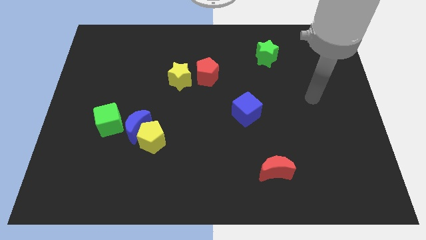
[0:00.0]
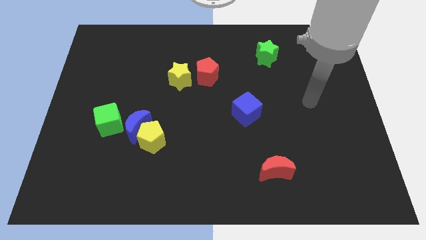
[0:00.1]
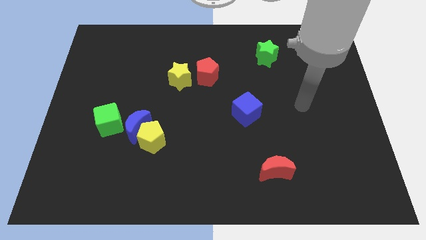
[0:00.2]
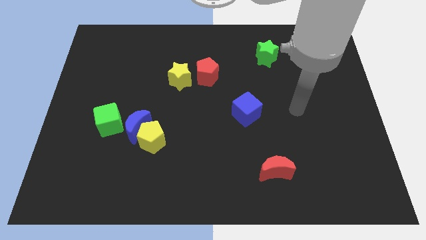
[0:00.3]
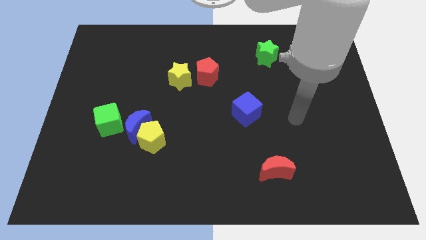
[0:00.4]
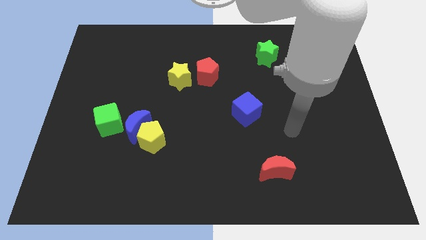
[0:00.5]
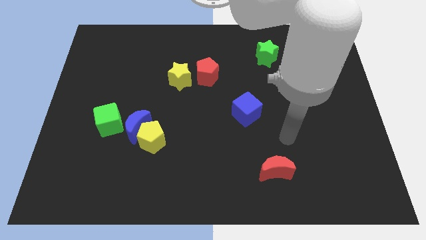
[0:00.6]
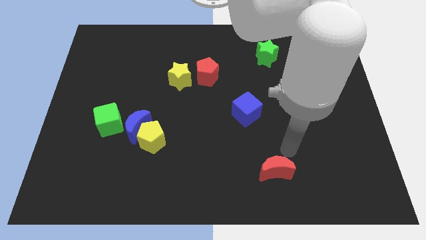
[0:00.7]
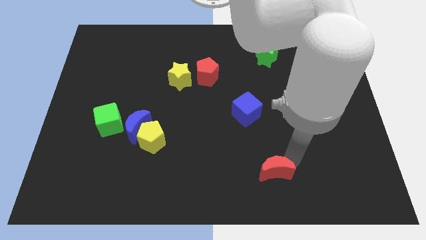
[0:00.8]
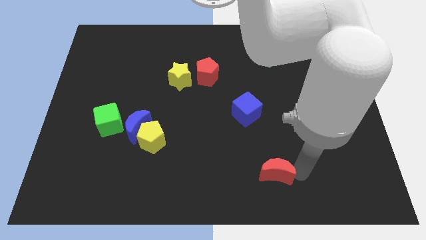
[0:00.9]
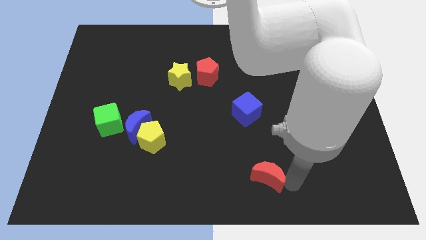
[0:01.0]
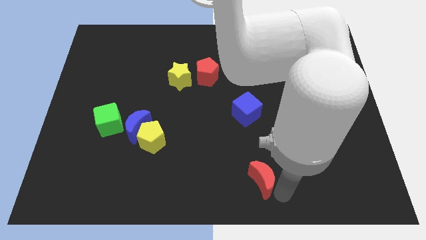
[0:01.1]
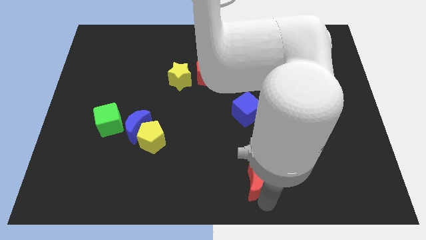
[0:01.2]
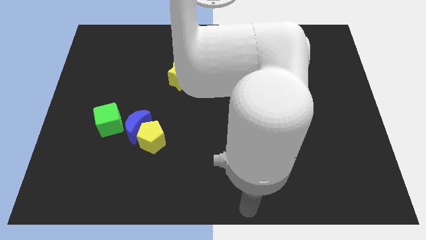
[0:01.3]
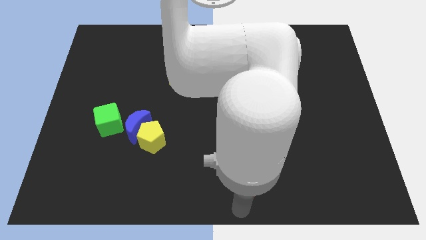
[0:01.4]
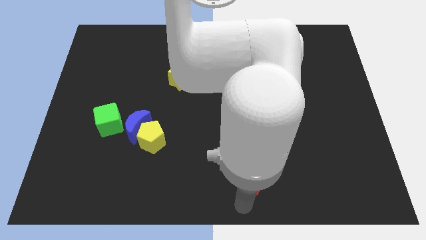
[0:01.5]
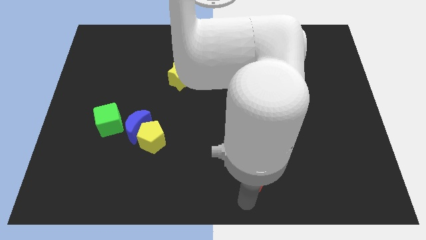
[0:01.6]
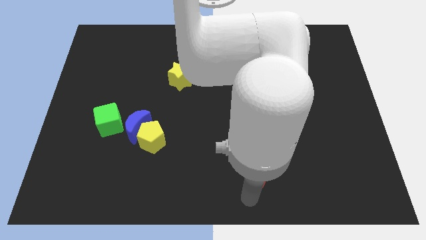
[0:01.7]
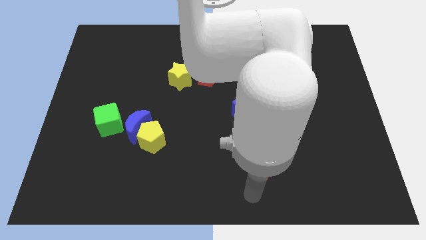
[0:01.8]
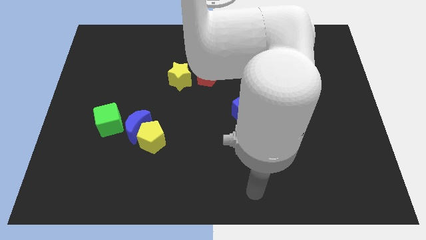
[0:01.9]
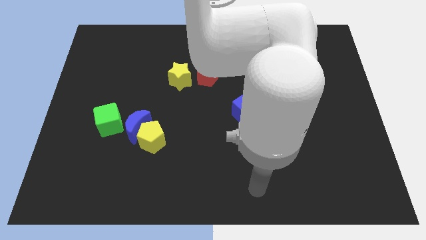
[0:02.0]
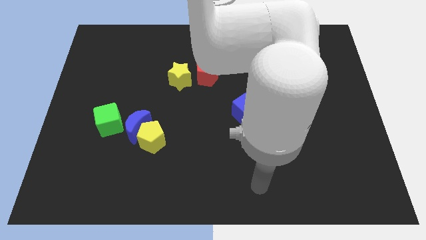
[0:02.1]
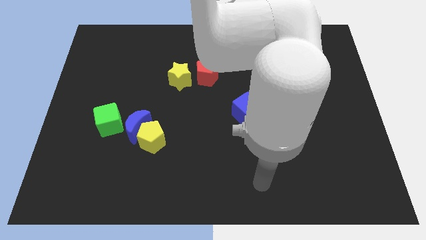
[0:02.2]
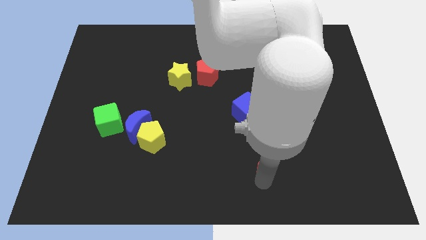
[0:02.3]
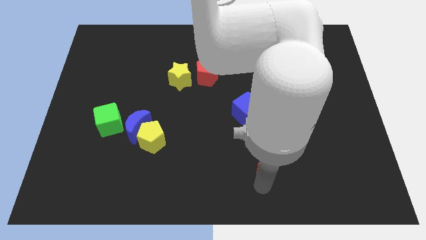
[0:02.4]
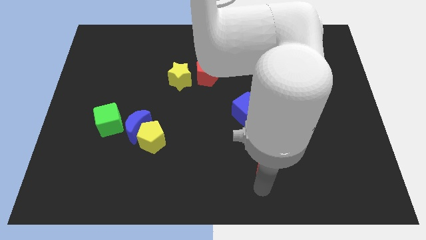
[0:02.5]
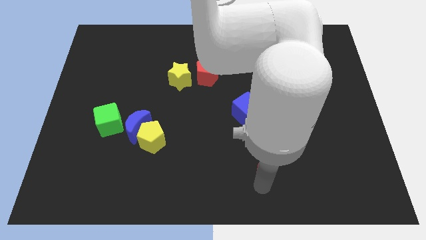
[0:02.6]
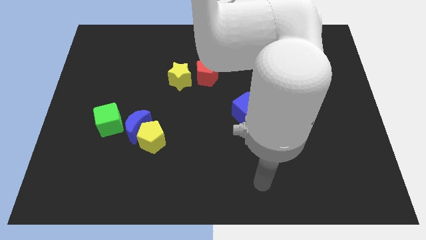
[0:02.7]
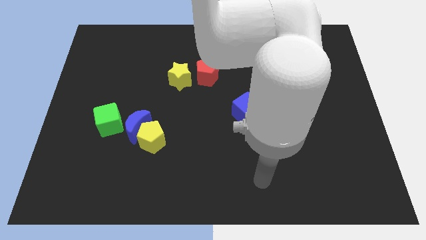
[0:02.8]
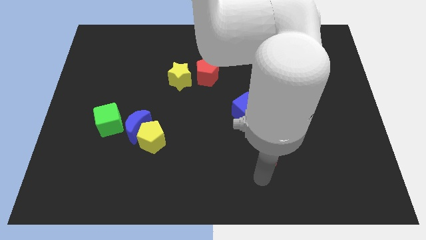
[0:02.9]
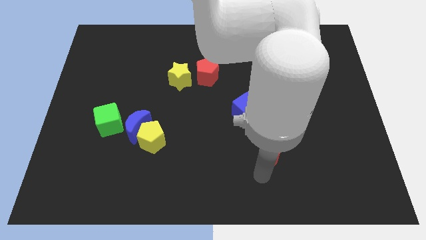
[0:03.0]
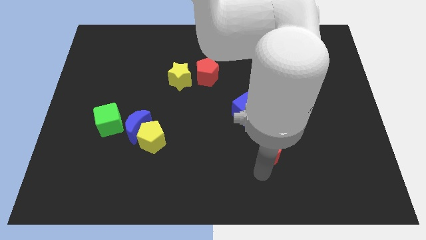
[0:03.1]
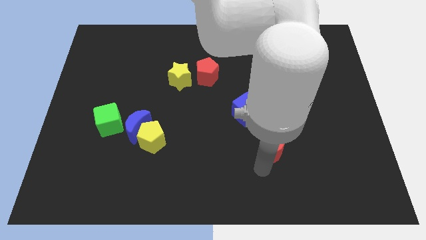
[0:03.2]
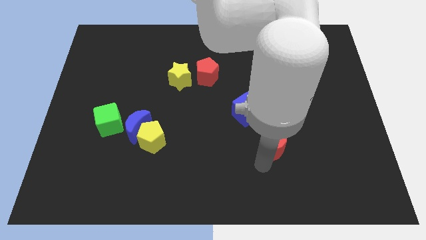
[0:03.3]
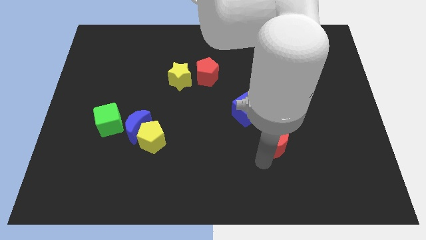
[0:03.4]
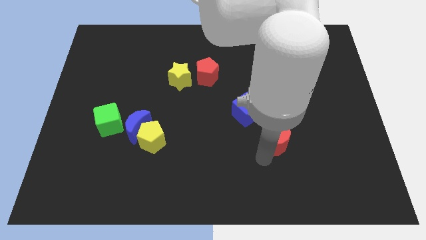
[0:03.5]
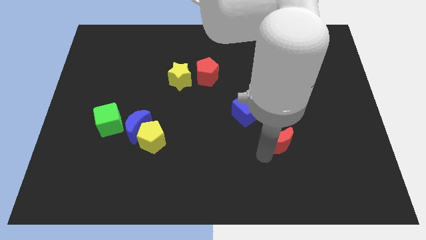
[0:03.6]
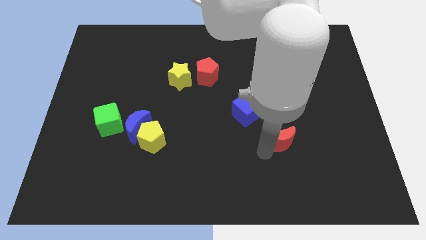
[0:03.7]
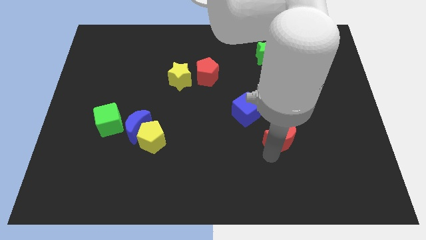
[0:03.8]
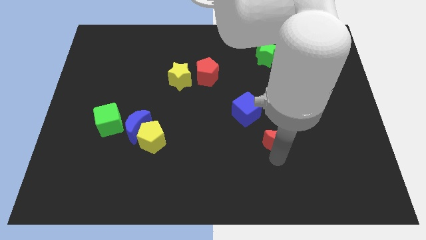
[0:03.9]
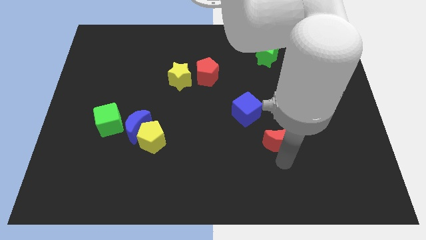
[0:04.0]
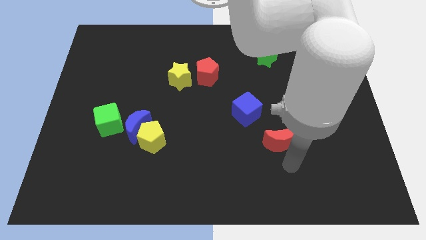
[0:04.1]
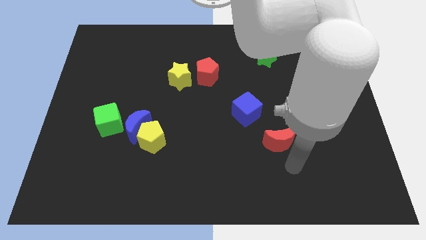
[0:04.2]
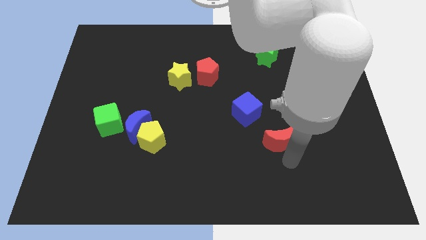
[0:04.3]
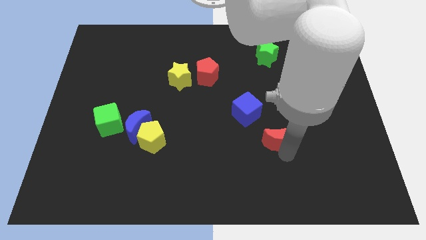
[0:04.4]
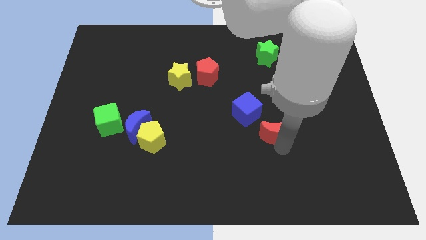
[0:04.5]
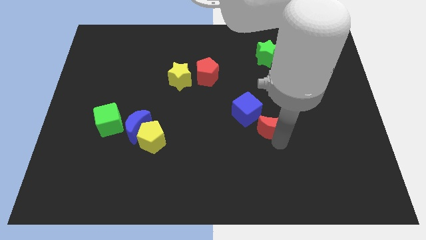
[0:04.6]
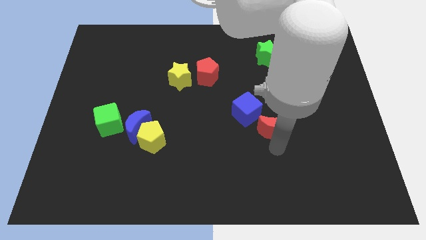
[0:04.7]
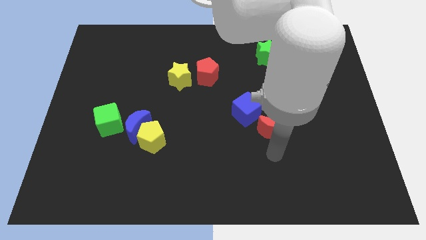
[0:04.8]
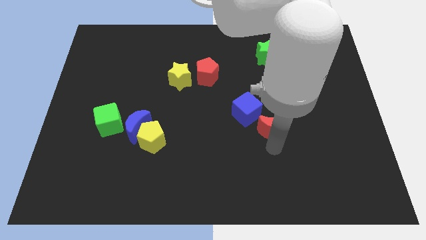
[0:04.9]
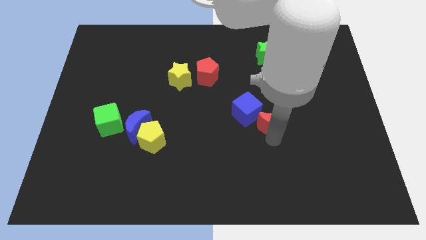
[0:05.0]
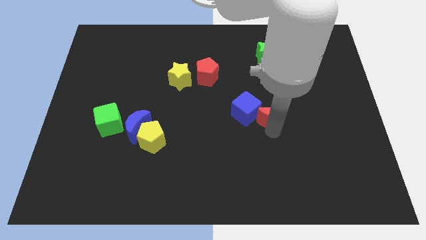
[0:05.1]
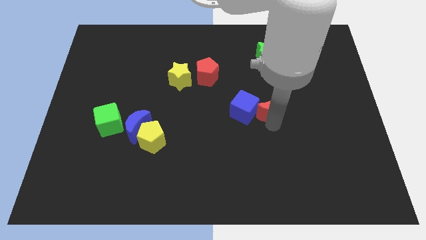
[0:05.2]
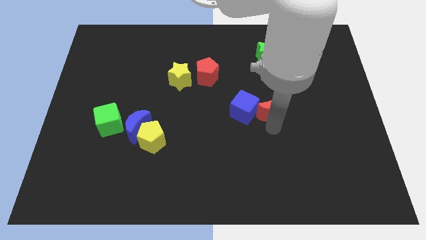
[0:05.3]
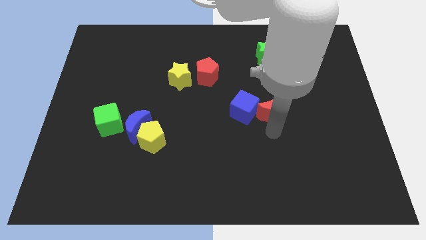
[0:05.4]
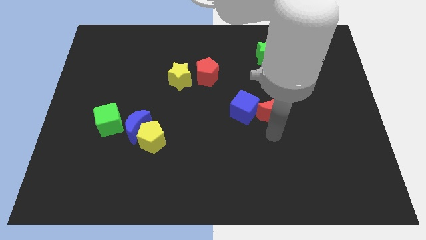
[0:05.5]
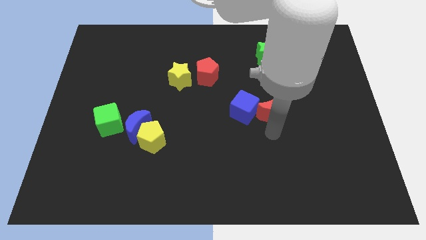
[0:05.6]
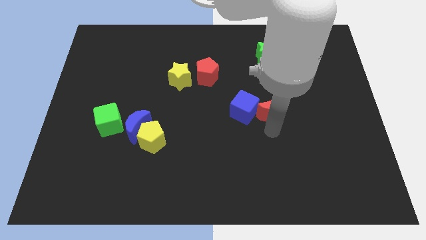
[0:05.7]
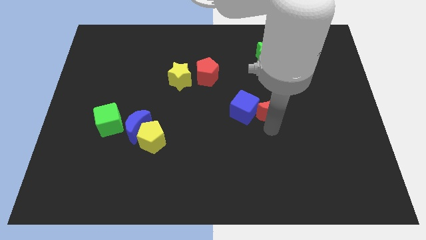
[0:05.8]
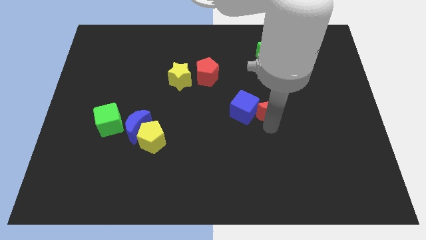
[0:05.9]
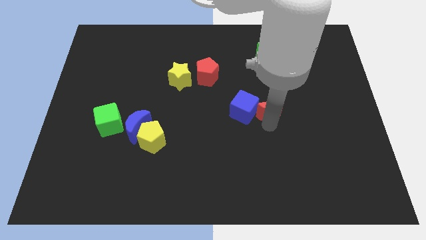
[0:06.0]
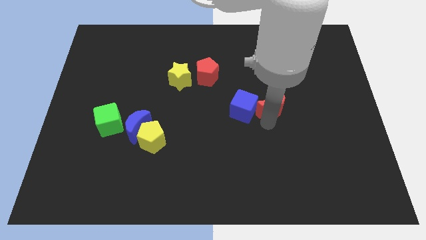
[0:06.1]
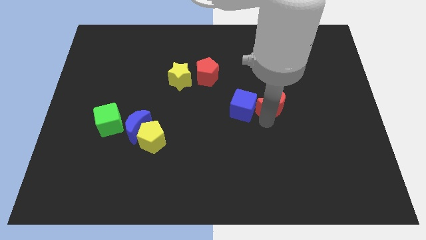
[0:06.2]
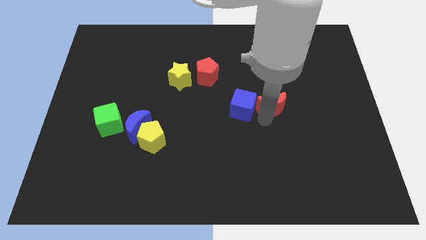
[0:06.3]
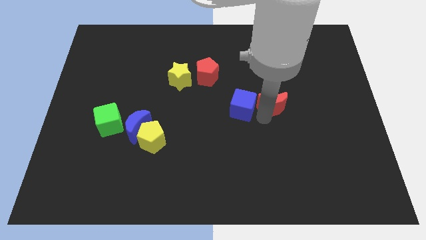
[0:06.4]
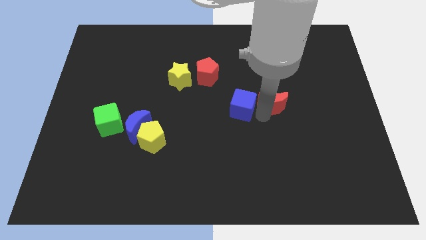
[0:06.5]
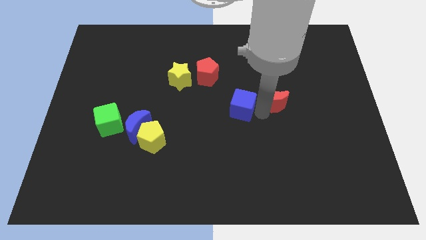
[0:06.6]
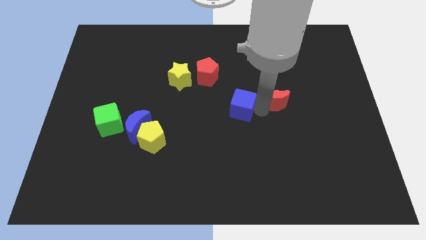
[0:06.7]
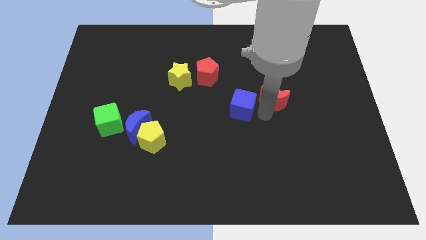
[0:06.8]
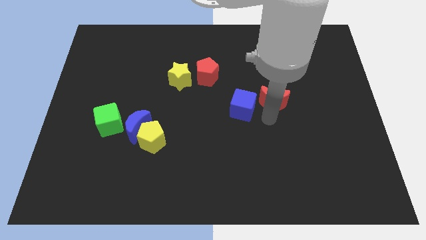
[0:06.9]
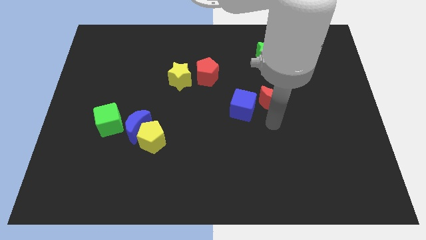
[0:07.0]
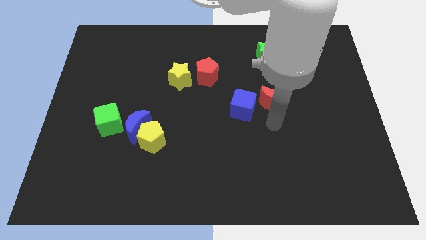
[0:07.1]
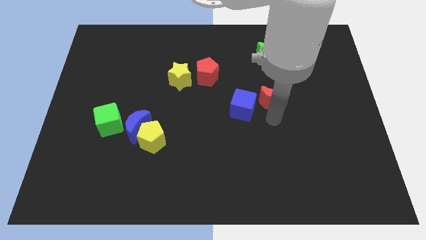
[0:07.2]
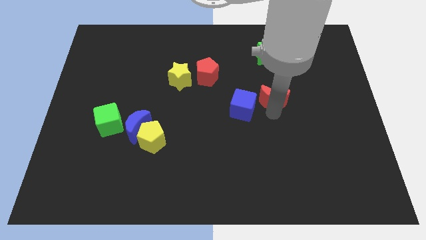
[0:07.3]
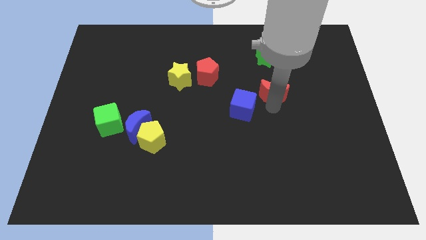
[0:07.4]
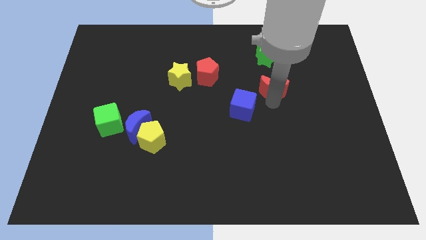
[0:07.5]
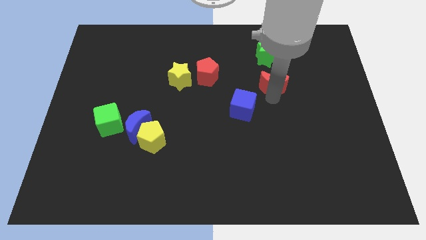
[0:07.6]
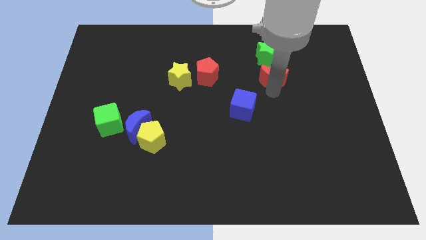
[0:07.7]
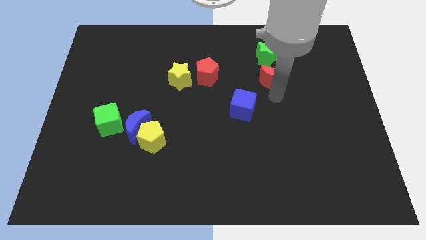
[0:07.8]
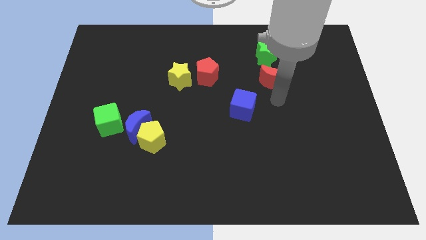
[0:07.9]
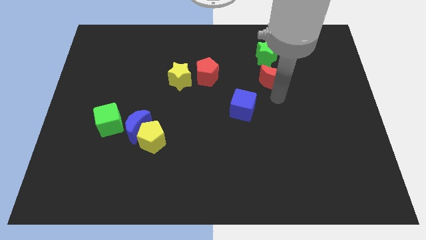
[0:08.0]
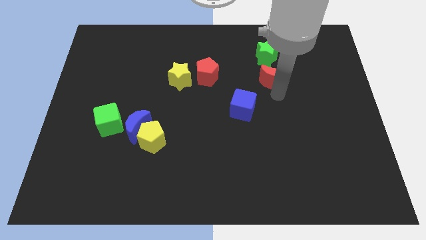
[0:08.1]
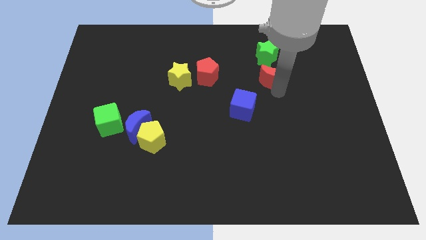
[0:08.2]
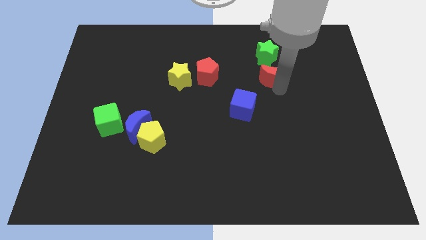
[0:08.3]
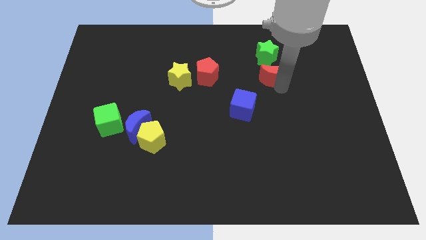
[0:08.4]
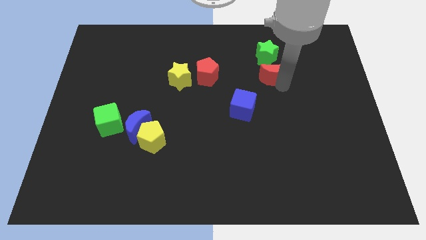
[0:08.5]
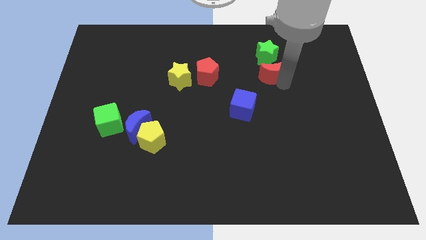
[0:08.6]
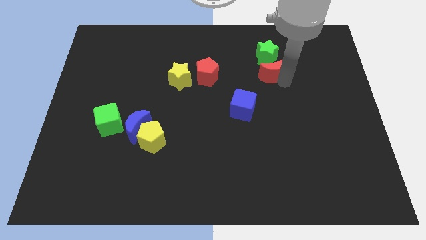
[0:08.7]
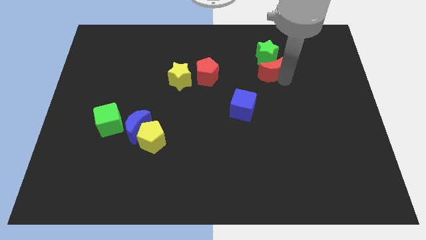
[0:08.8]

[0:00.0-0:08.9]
slide the red moon next to the green star

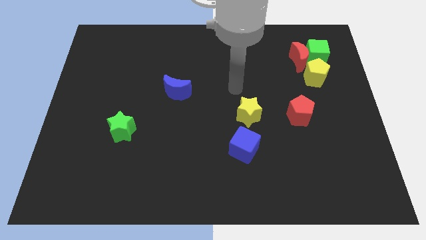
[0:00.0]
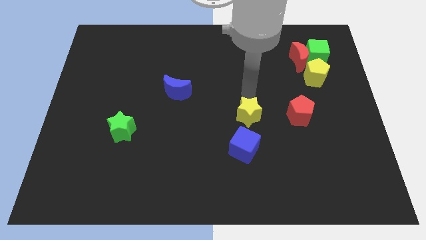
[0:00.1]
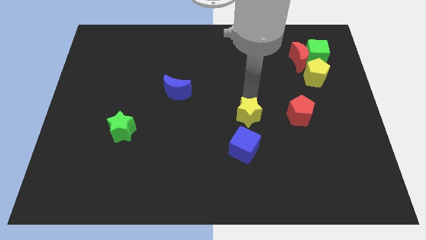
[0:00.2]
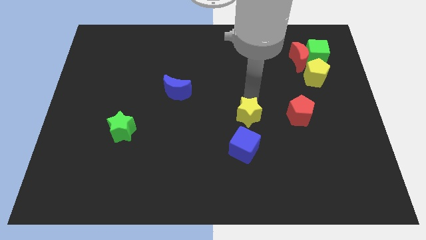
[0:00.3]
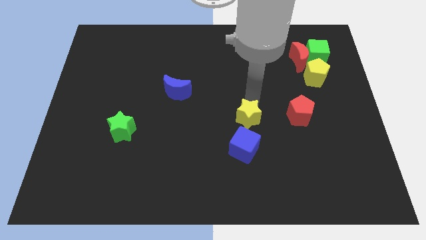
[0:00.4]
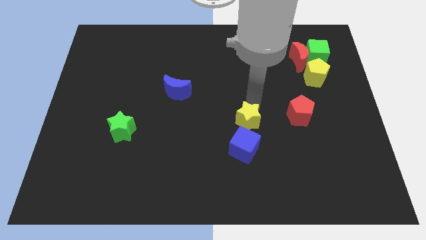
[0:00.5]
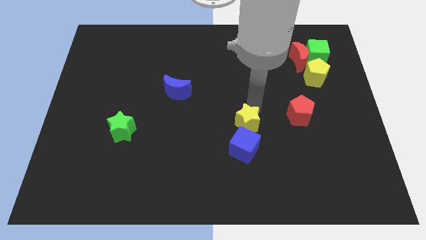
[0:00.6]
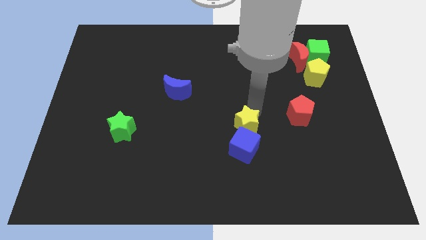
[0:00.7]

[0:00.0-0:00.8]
move the yellow star towards the blue cube
